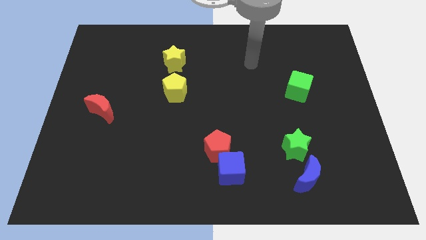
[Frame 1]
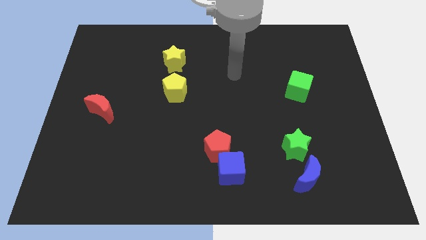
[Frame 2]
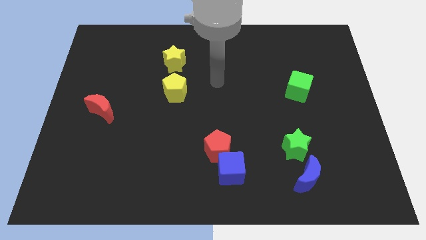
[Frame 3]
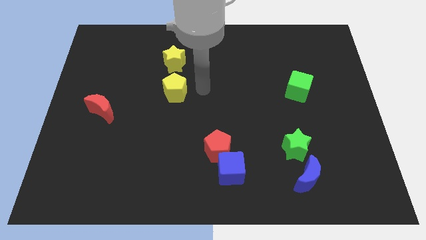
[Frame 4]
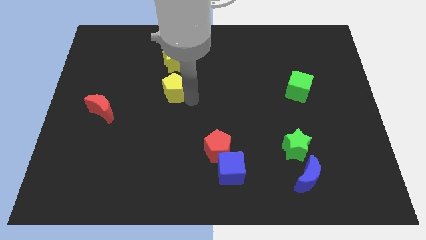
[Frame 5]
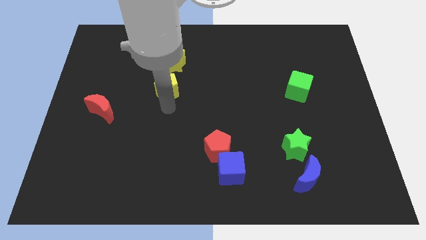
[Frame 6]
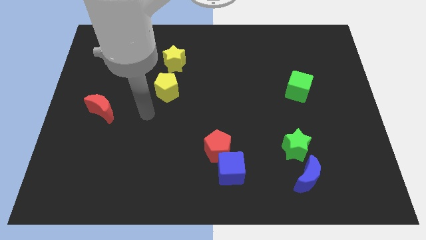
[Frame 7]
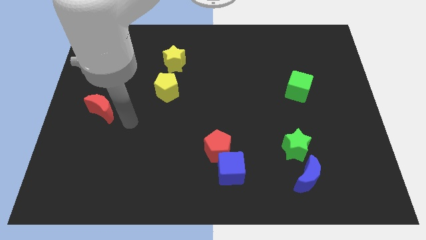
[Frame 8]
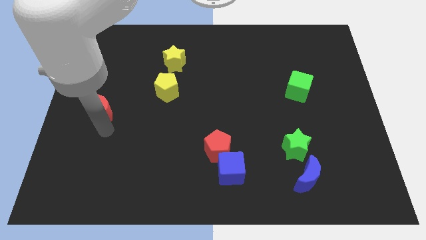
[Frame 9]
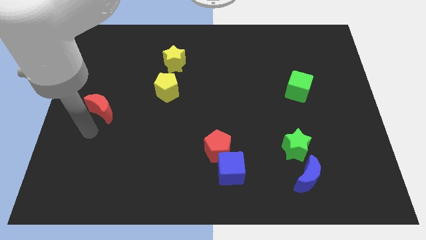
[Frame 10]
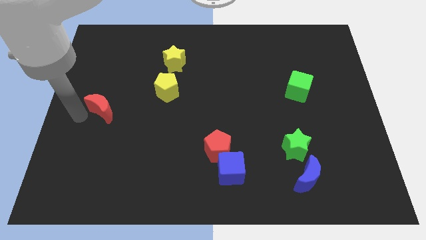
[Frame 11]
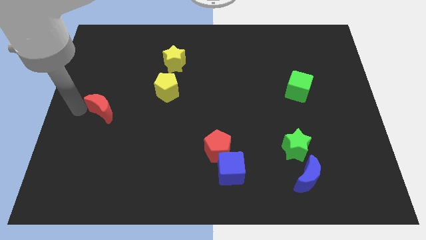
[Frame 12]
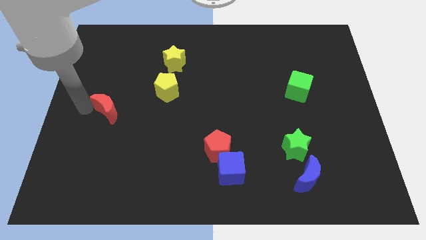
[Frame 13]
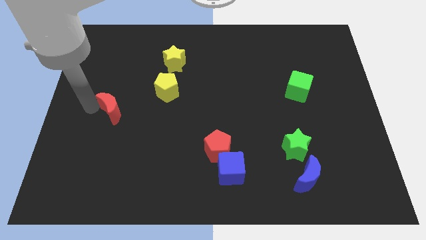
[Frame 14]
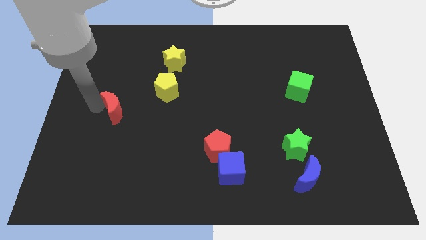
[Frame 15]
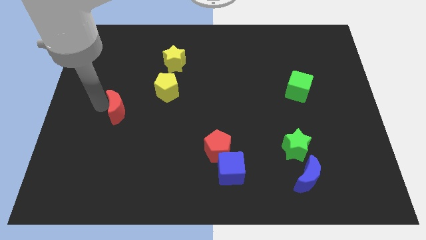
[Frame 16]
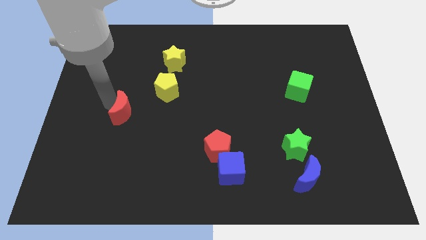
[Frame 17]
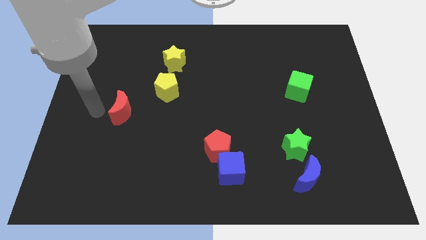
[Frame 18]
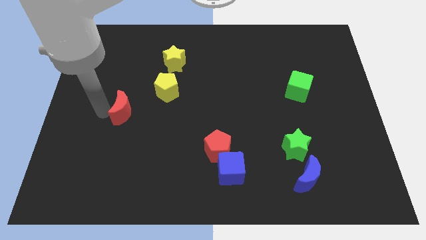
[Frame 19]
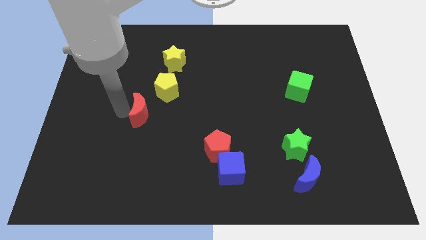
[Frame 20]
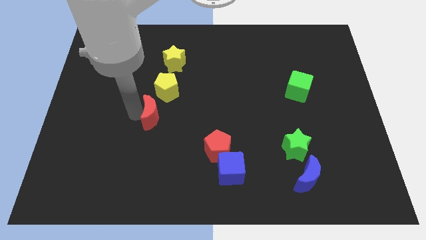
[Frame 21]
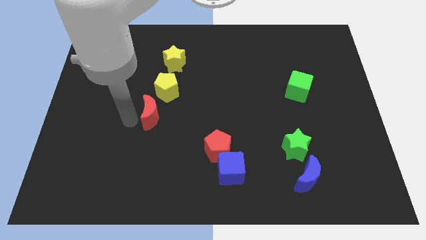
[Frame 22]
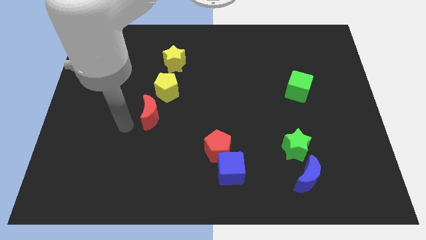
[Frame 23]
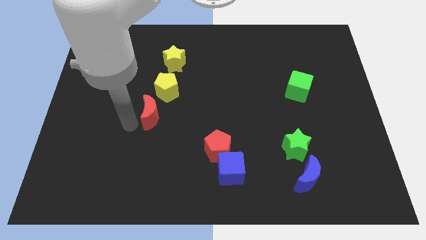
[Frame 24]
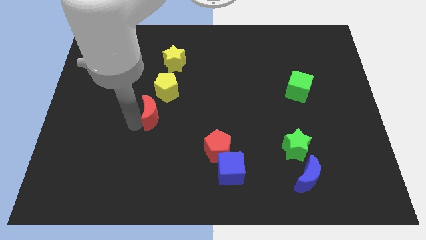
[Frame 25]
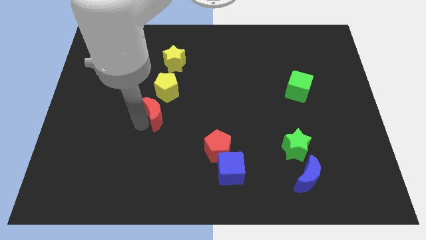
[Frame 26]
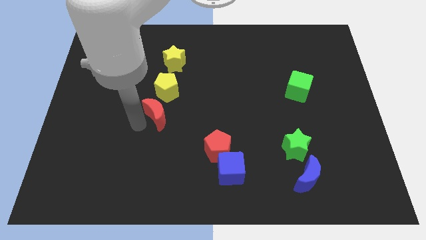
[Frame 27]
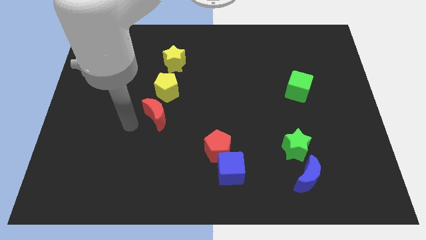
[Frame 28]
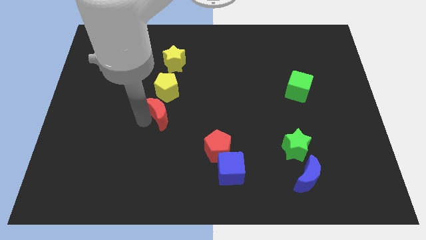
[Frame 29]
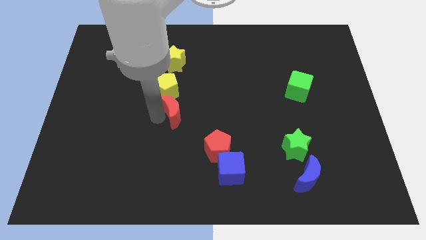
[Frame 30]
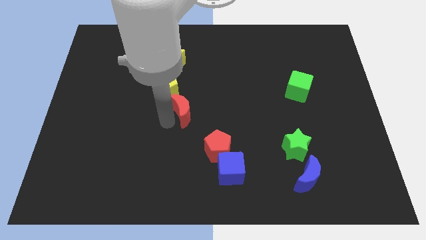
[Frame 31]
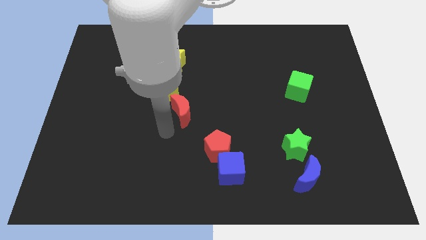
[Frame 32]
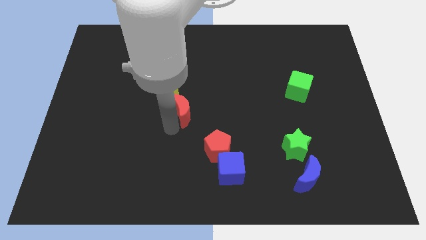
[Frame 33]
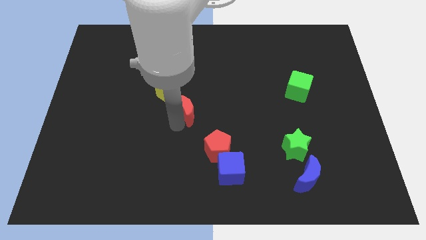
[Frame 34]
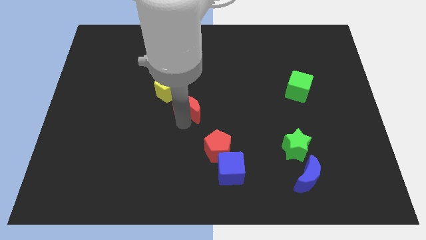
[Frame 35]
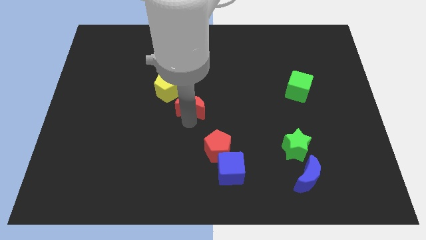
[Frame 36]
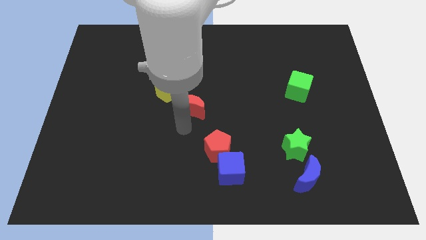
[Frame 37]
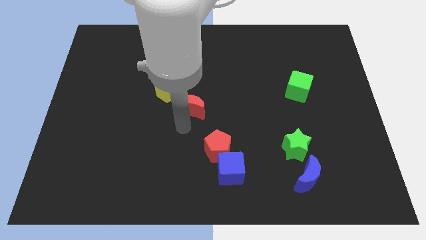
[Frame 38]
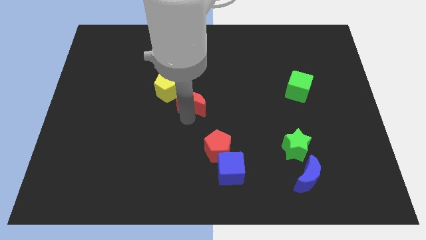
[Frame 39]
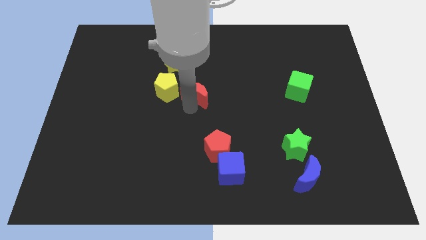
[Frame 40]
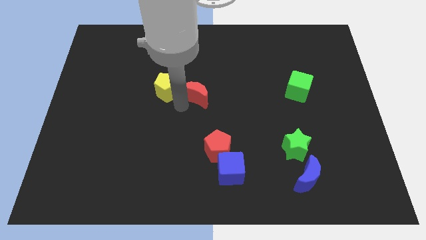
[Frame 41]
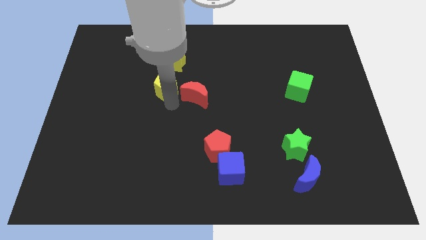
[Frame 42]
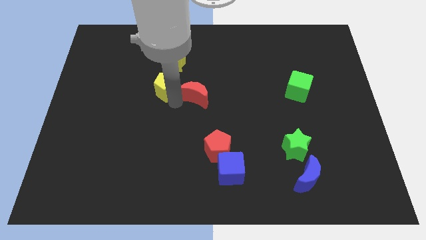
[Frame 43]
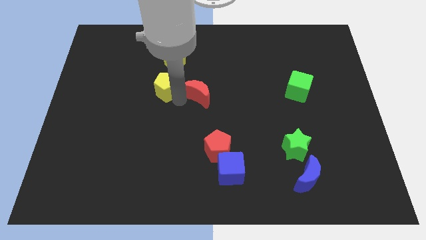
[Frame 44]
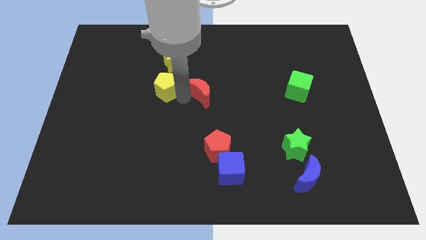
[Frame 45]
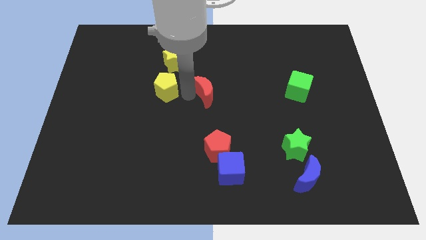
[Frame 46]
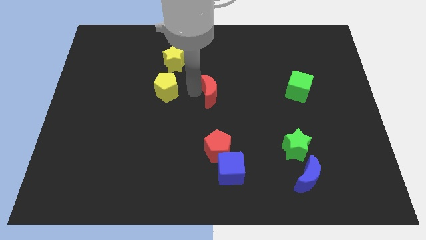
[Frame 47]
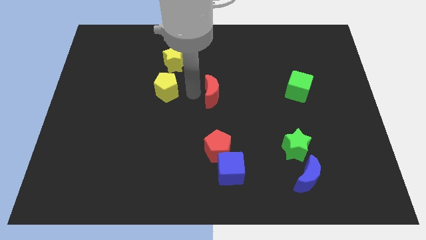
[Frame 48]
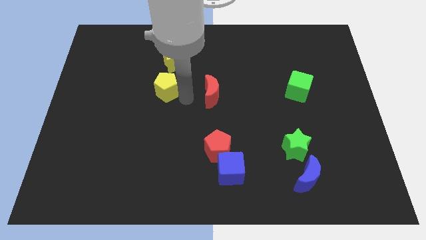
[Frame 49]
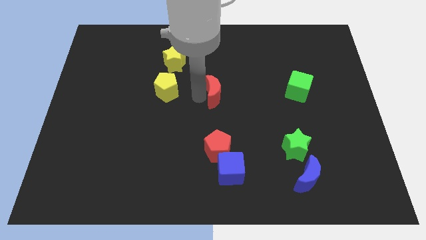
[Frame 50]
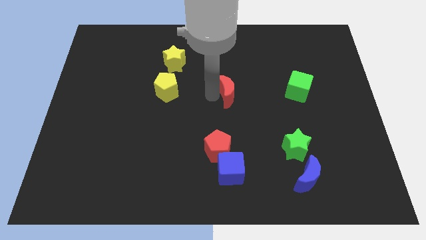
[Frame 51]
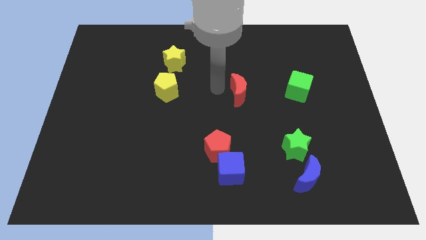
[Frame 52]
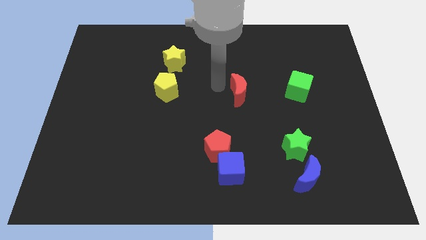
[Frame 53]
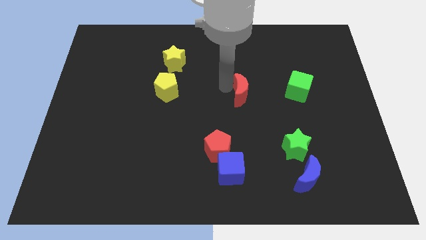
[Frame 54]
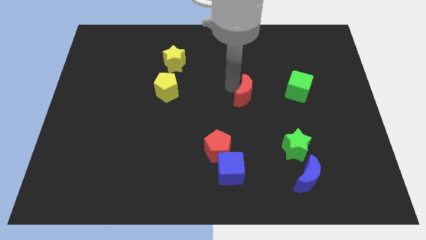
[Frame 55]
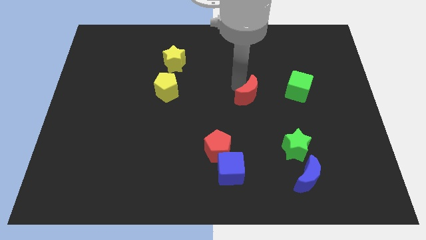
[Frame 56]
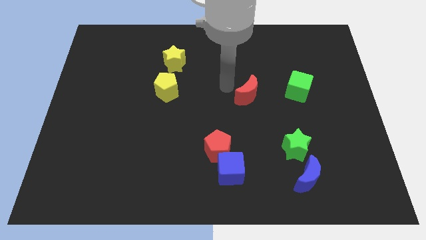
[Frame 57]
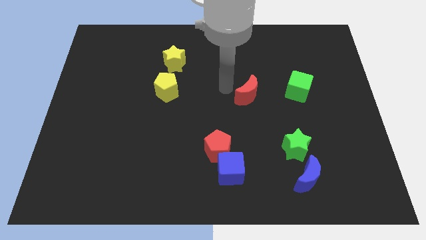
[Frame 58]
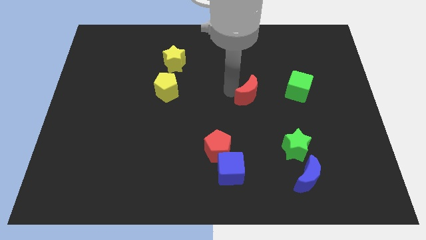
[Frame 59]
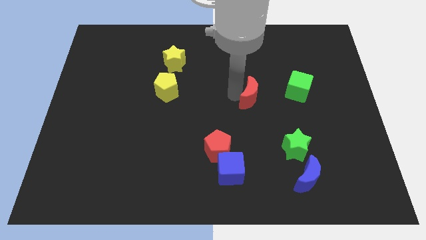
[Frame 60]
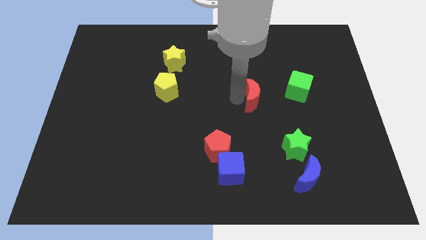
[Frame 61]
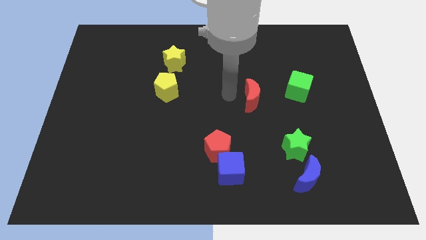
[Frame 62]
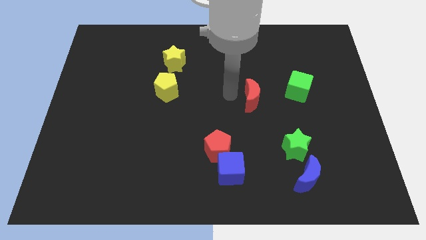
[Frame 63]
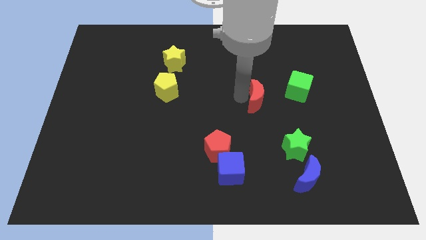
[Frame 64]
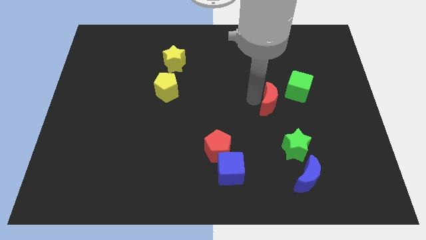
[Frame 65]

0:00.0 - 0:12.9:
put the red moon above the green star

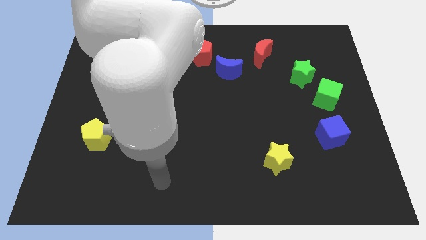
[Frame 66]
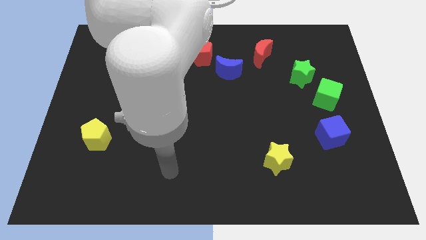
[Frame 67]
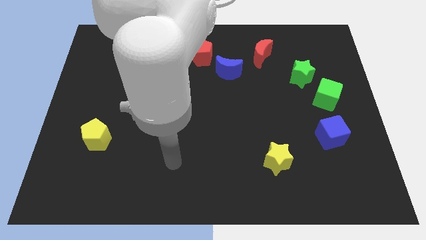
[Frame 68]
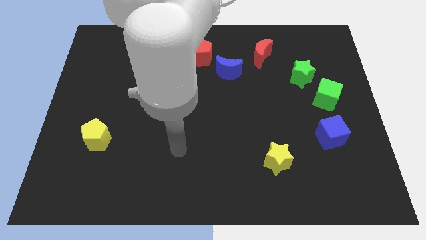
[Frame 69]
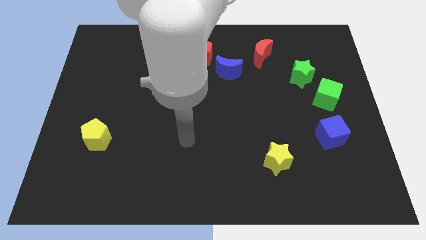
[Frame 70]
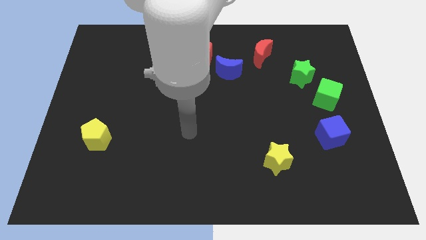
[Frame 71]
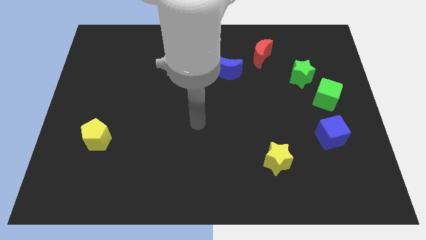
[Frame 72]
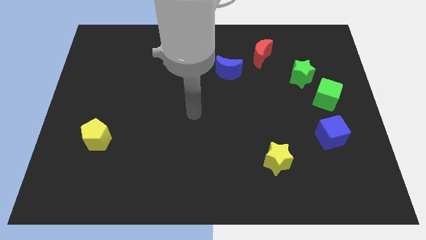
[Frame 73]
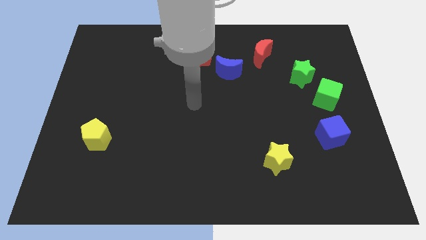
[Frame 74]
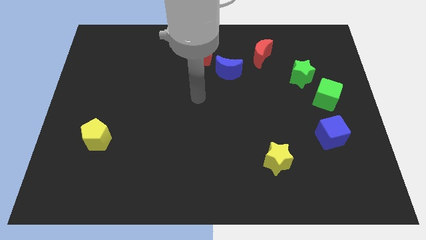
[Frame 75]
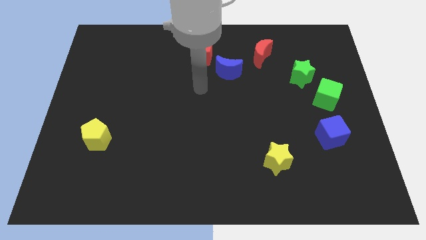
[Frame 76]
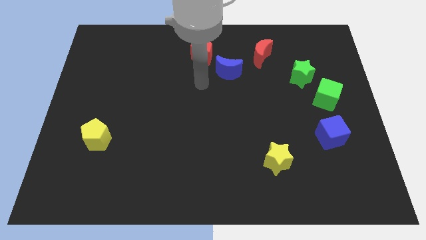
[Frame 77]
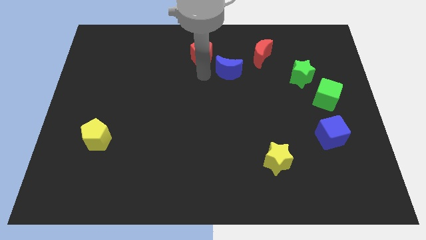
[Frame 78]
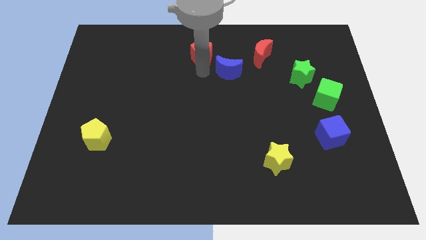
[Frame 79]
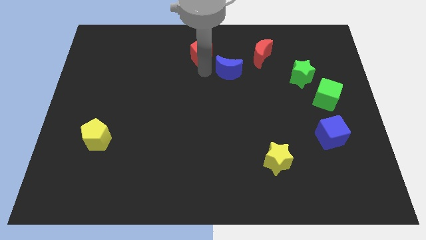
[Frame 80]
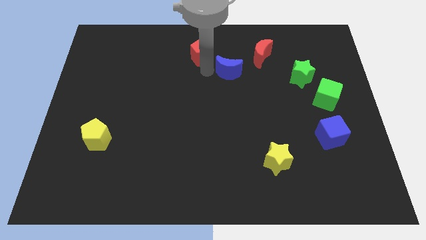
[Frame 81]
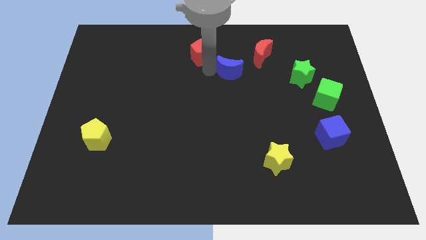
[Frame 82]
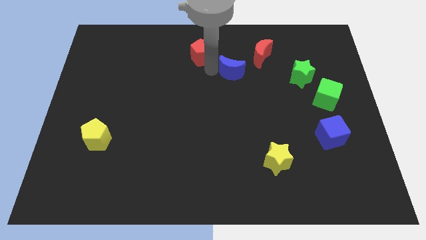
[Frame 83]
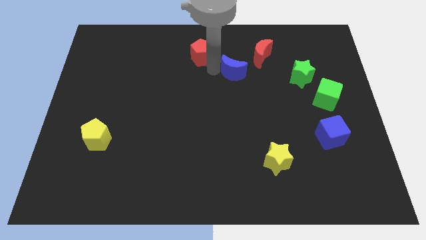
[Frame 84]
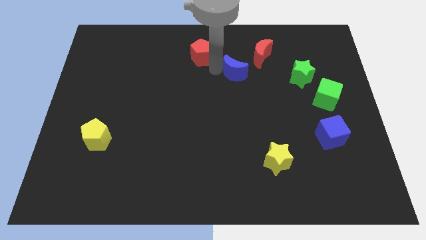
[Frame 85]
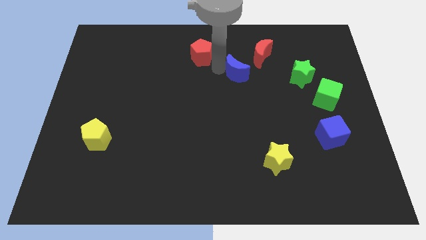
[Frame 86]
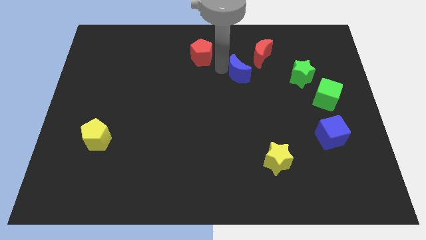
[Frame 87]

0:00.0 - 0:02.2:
slide the blue moon just left of the green star
